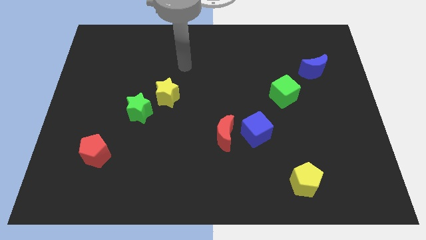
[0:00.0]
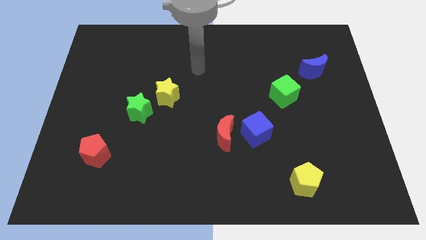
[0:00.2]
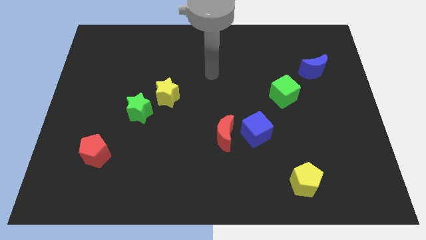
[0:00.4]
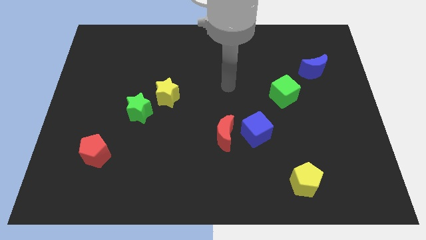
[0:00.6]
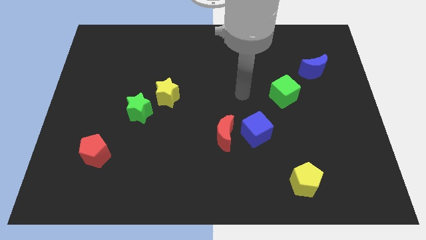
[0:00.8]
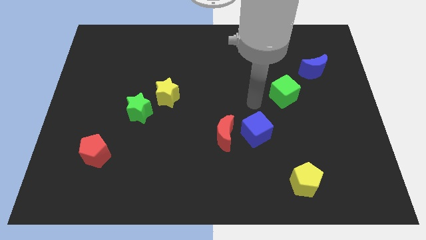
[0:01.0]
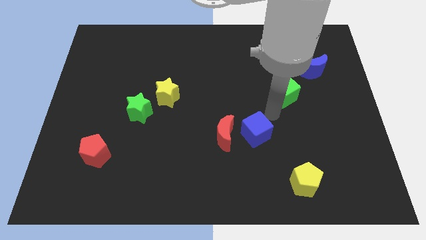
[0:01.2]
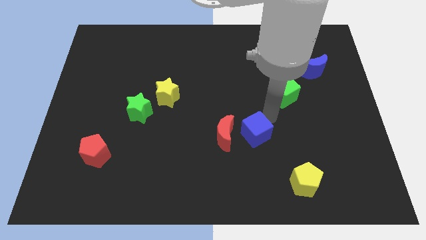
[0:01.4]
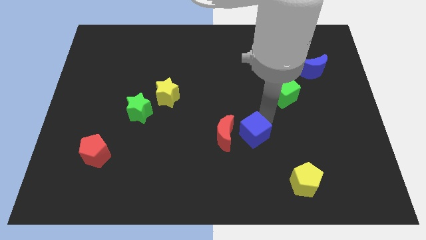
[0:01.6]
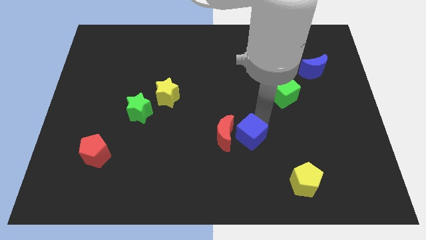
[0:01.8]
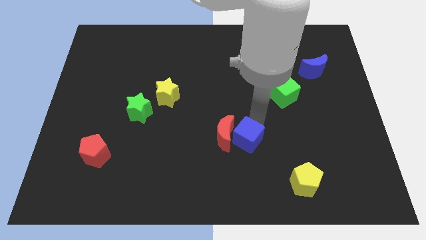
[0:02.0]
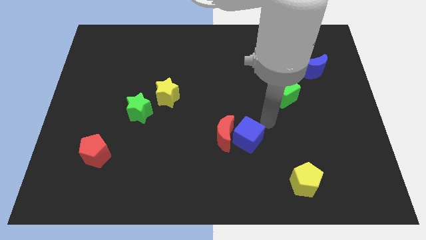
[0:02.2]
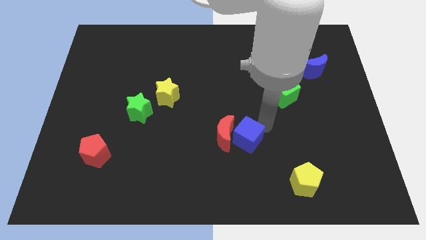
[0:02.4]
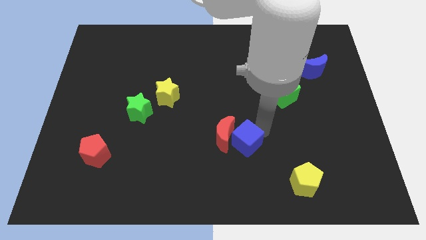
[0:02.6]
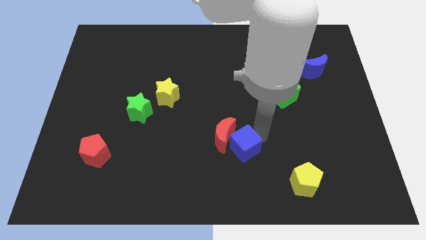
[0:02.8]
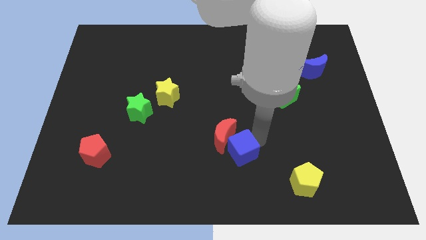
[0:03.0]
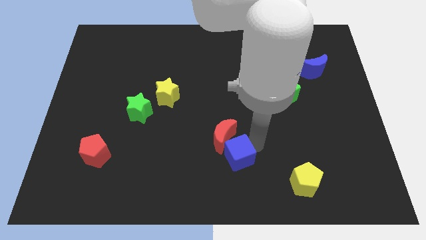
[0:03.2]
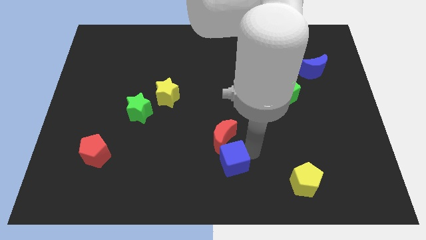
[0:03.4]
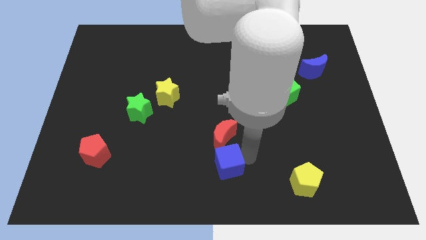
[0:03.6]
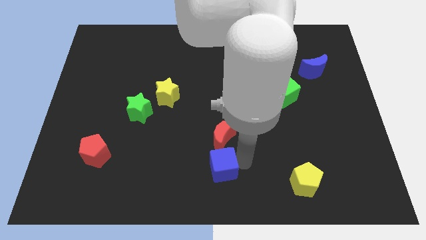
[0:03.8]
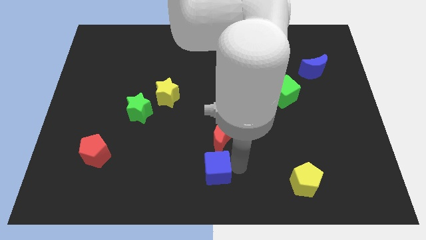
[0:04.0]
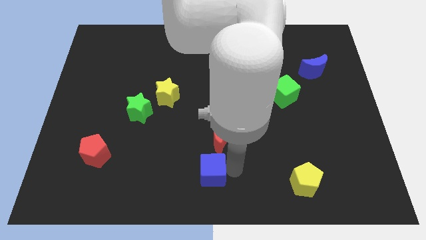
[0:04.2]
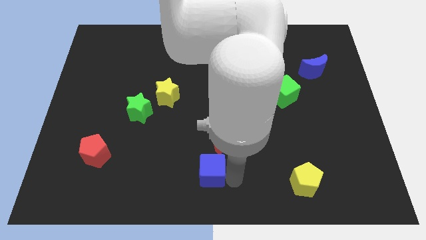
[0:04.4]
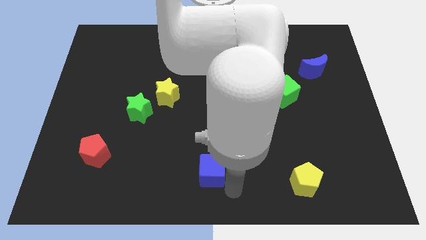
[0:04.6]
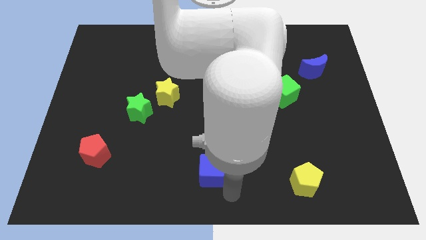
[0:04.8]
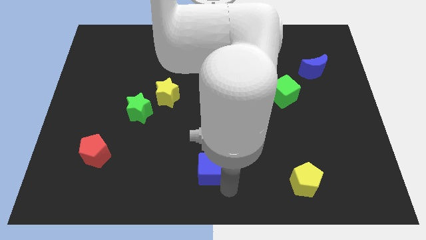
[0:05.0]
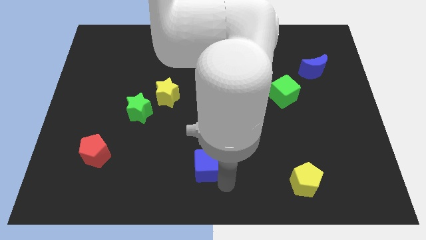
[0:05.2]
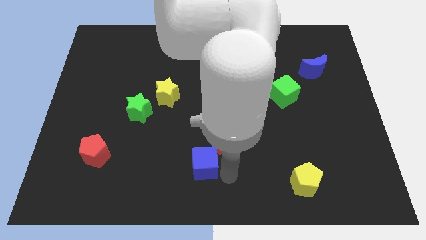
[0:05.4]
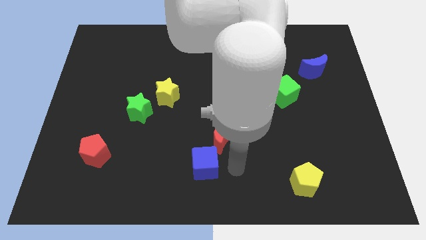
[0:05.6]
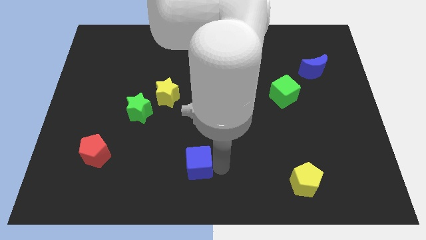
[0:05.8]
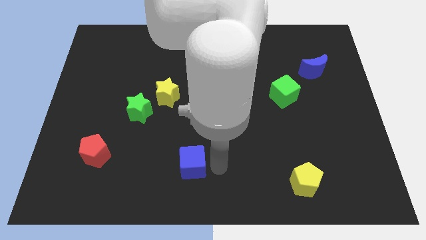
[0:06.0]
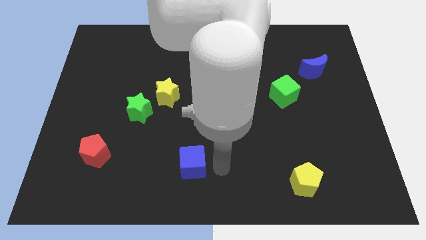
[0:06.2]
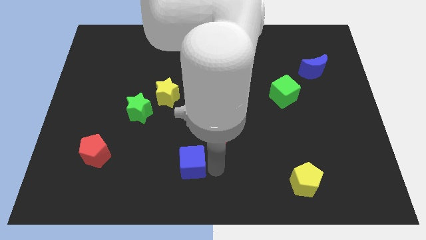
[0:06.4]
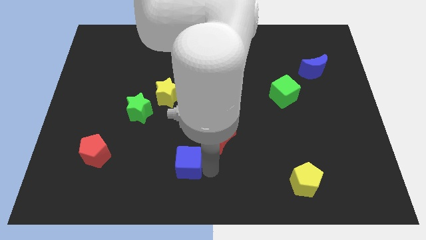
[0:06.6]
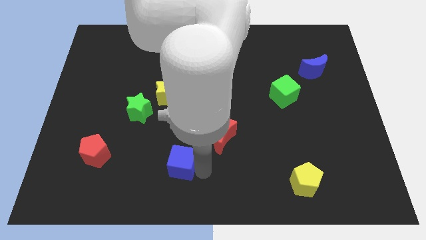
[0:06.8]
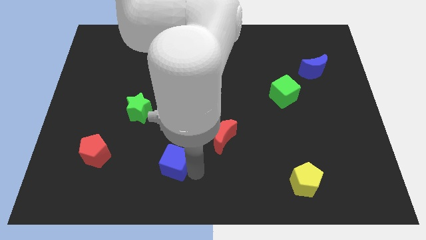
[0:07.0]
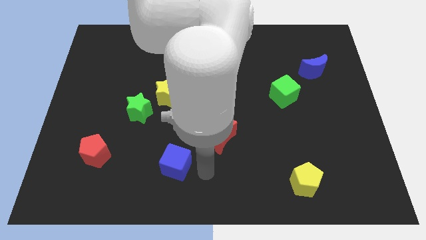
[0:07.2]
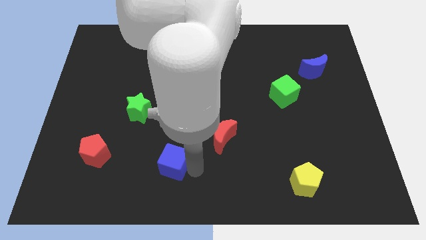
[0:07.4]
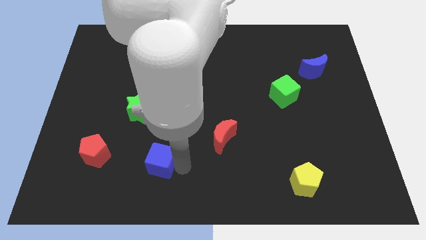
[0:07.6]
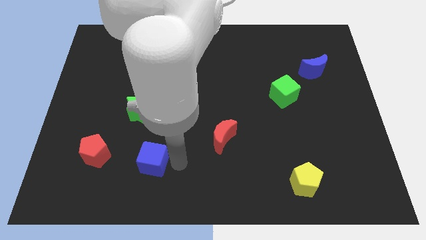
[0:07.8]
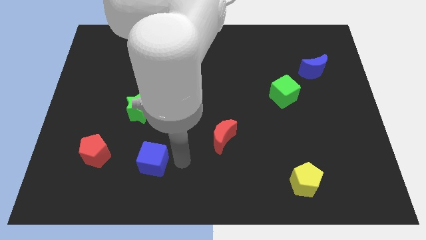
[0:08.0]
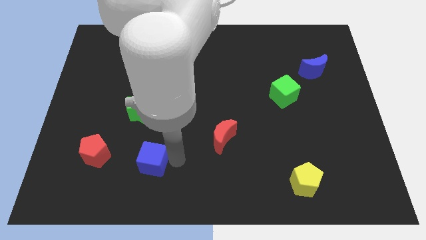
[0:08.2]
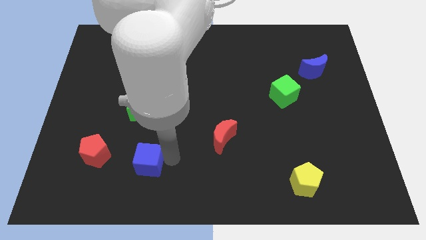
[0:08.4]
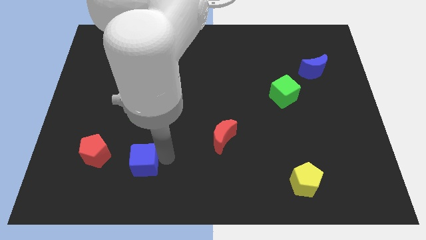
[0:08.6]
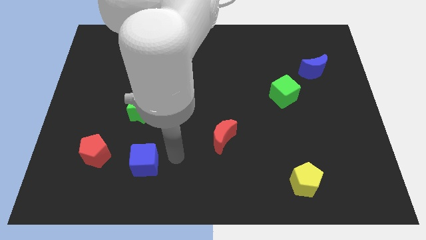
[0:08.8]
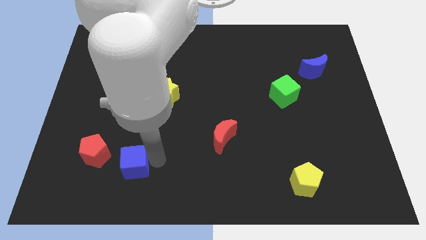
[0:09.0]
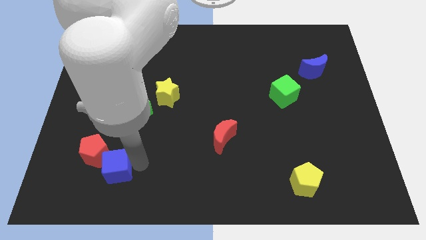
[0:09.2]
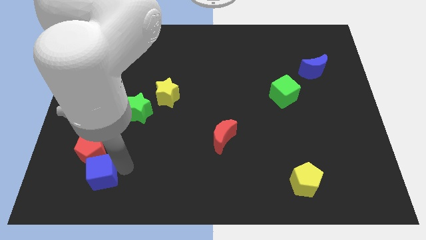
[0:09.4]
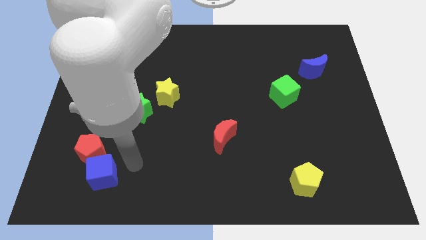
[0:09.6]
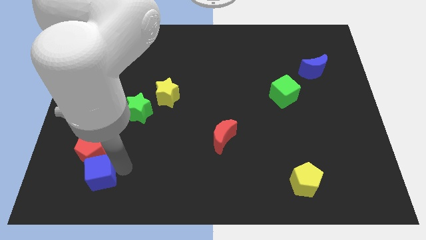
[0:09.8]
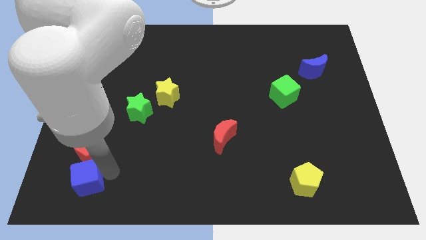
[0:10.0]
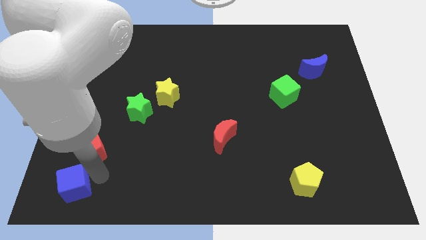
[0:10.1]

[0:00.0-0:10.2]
move the blue cube to the bottom left of the board

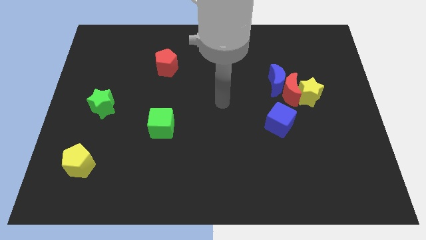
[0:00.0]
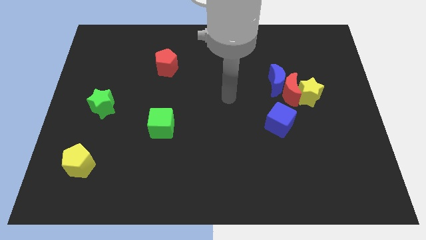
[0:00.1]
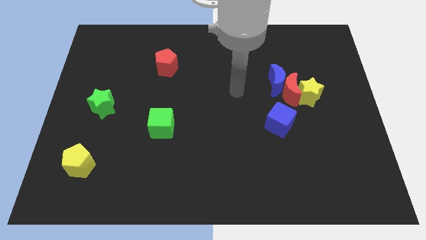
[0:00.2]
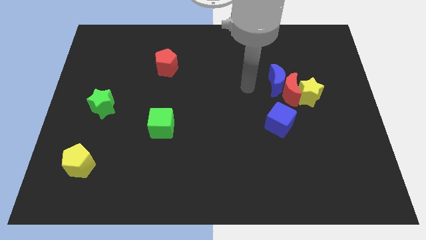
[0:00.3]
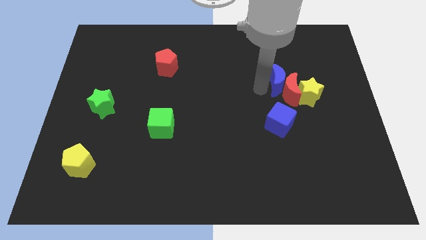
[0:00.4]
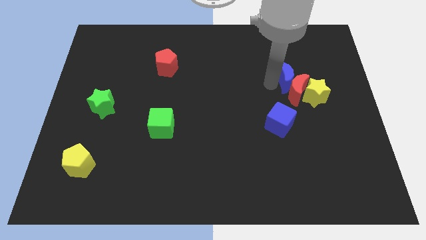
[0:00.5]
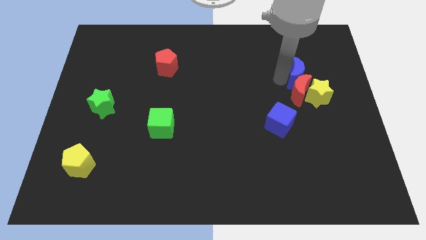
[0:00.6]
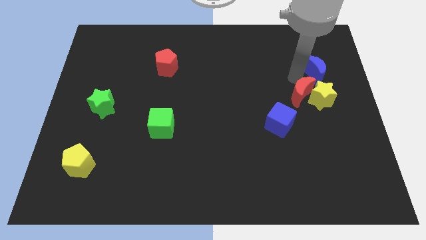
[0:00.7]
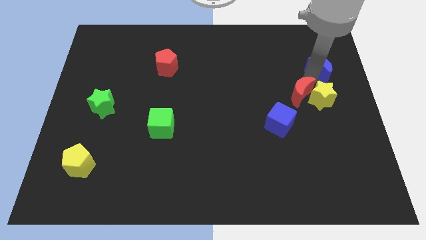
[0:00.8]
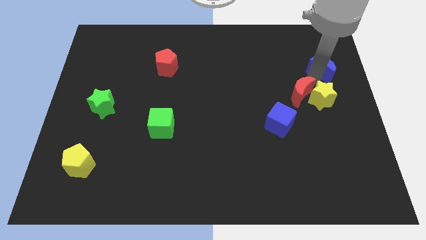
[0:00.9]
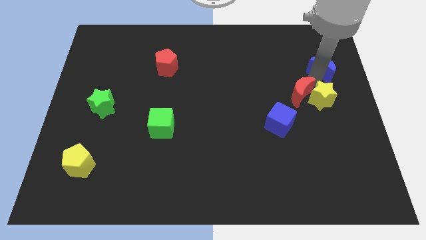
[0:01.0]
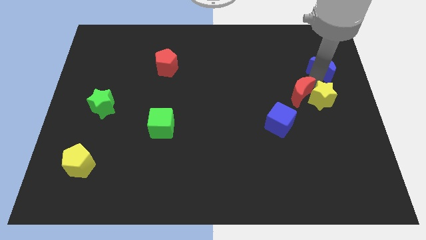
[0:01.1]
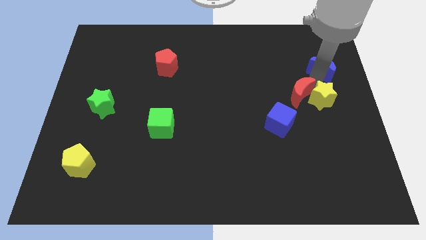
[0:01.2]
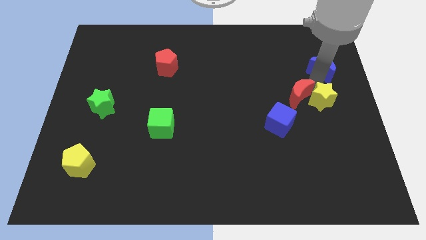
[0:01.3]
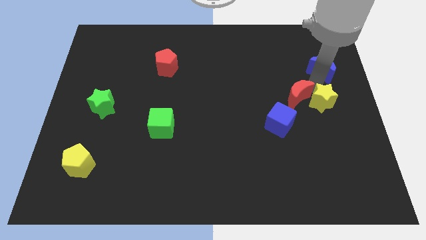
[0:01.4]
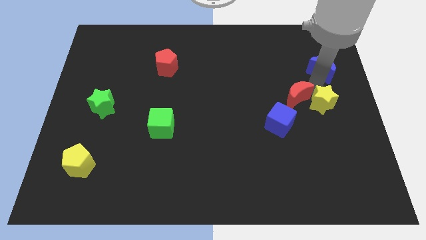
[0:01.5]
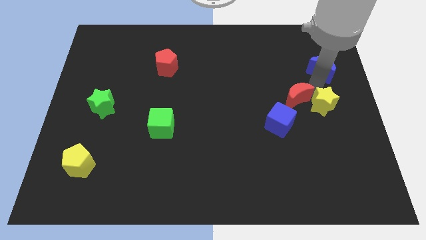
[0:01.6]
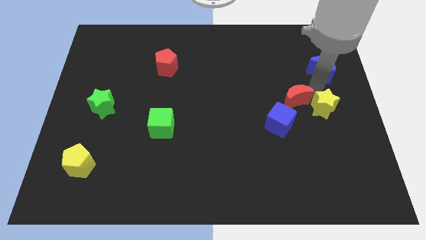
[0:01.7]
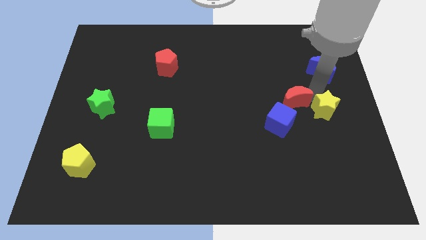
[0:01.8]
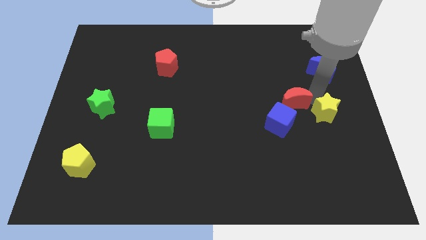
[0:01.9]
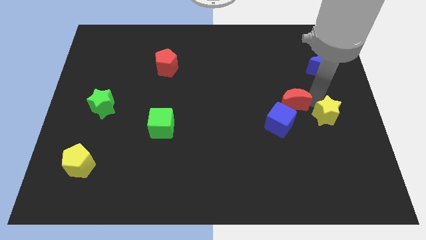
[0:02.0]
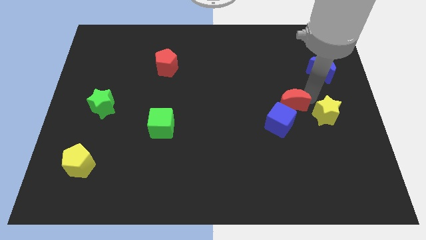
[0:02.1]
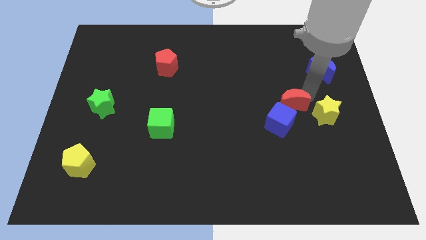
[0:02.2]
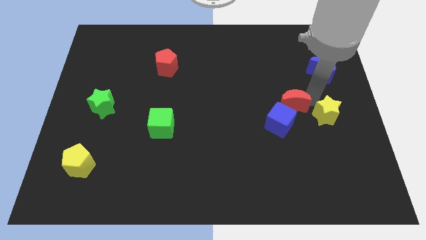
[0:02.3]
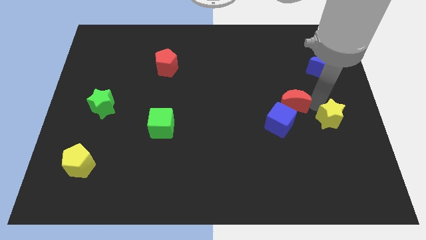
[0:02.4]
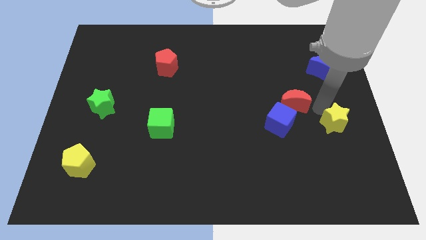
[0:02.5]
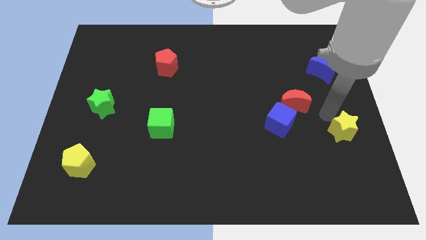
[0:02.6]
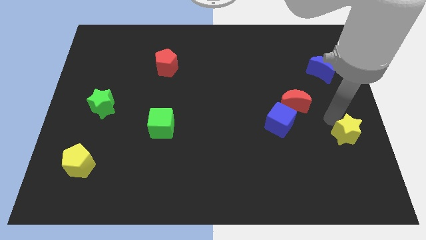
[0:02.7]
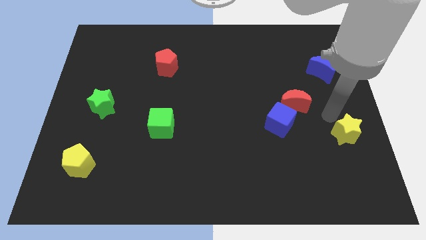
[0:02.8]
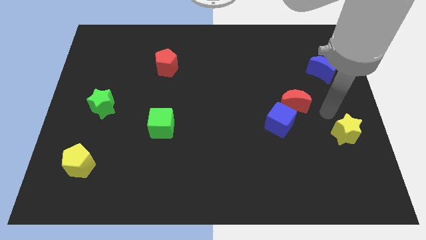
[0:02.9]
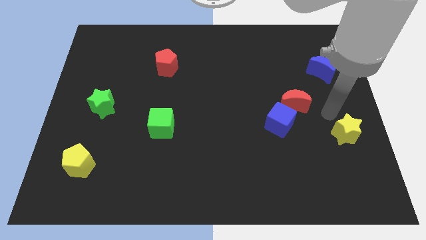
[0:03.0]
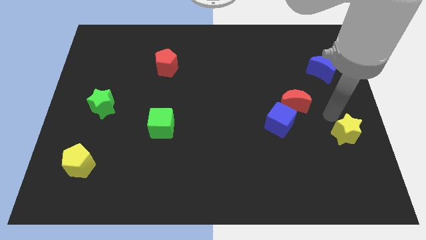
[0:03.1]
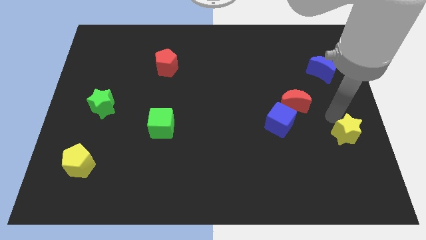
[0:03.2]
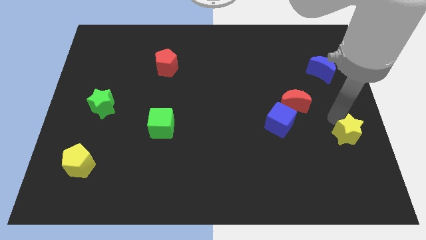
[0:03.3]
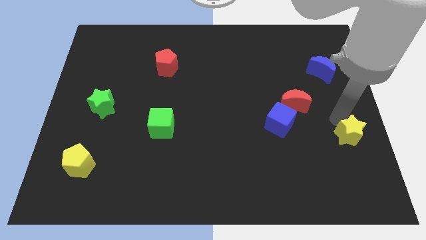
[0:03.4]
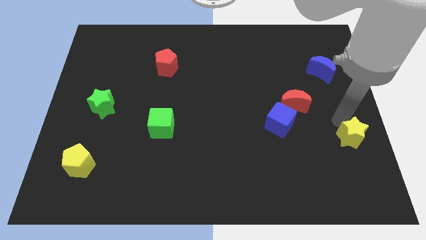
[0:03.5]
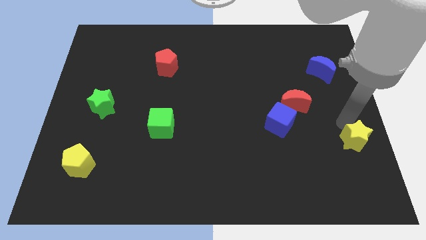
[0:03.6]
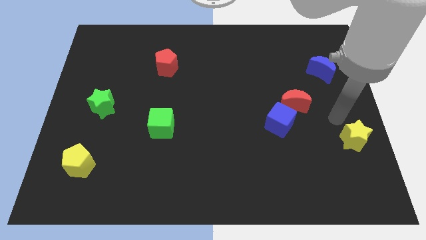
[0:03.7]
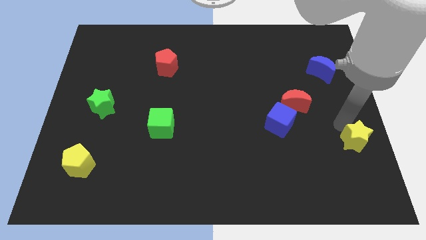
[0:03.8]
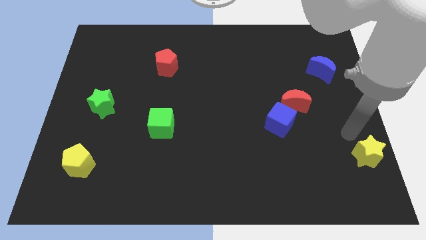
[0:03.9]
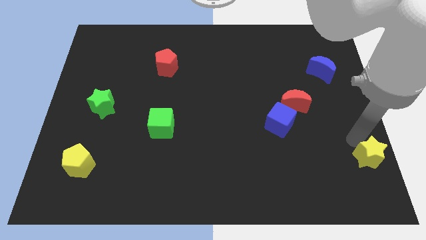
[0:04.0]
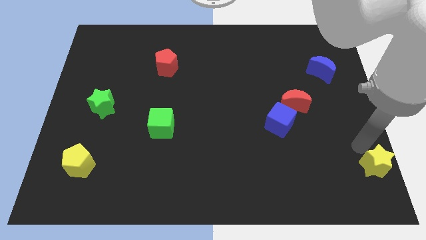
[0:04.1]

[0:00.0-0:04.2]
push the yellow star to the bottom right of the board
